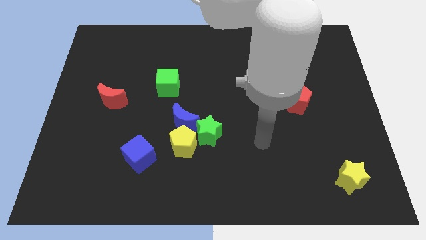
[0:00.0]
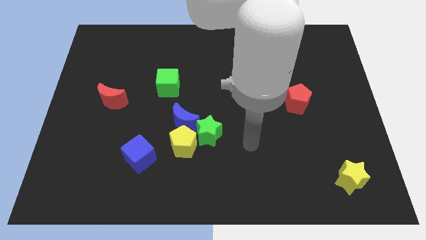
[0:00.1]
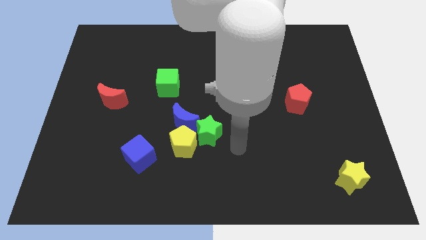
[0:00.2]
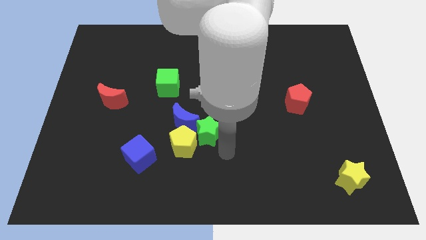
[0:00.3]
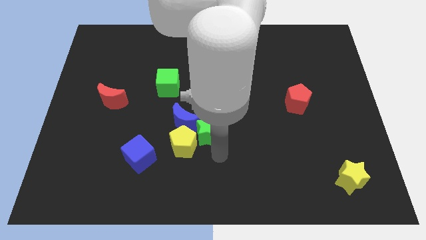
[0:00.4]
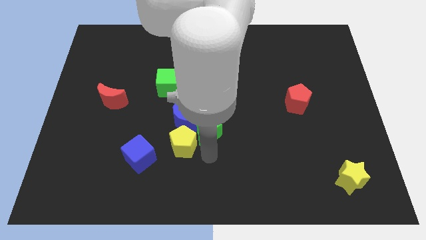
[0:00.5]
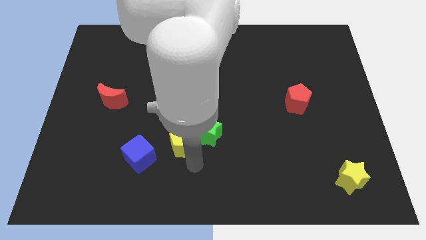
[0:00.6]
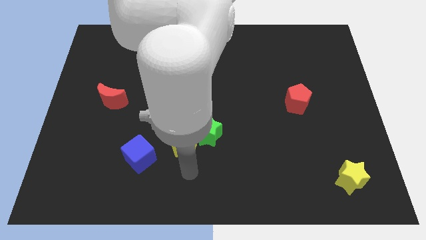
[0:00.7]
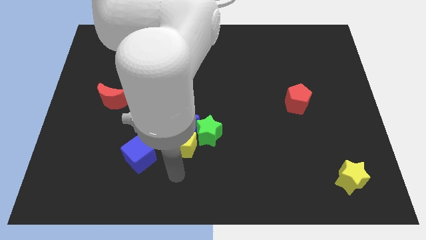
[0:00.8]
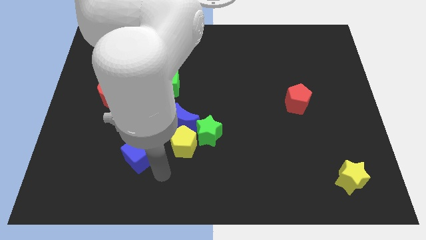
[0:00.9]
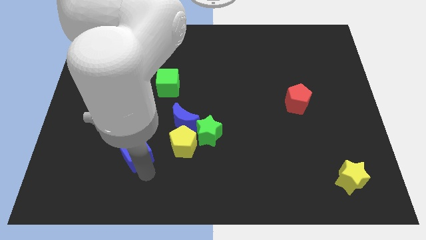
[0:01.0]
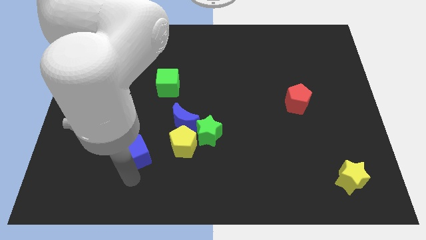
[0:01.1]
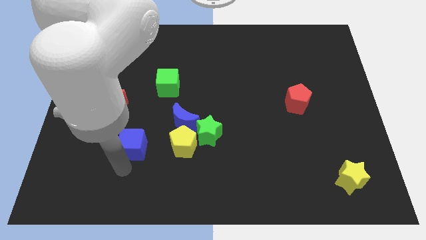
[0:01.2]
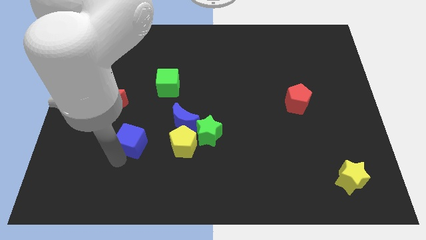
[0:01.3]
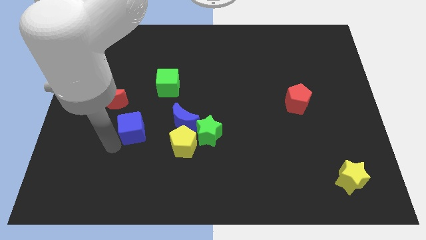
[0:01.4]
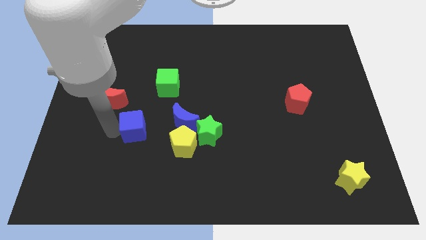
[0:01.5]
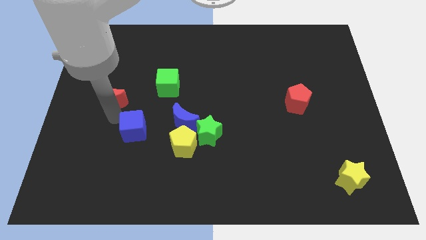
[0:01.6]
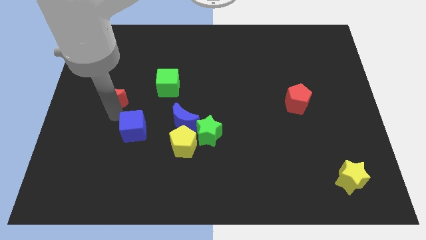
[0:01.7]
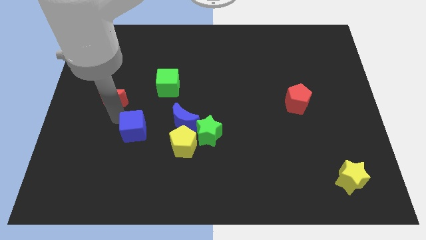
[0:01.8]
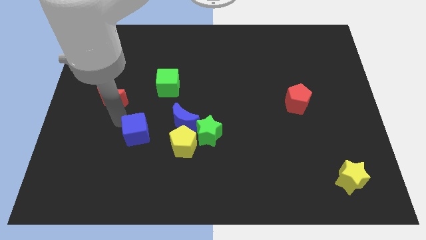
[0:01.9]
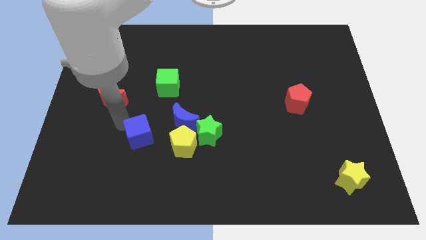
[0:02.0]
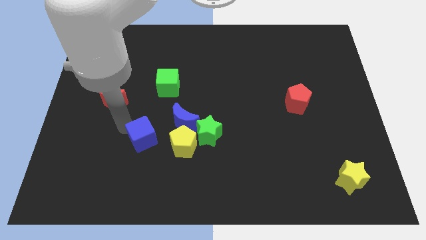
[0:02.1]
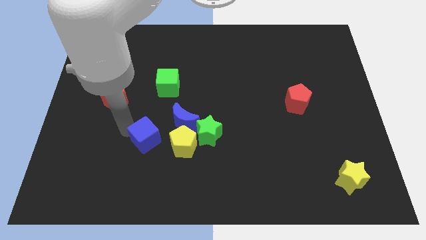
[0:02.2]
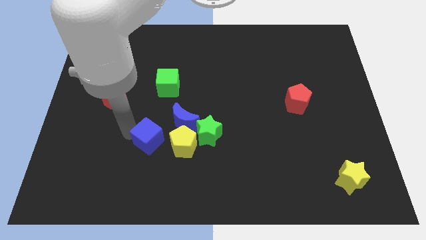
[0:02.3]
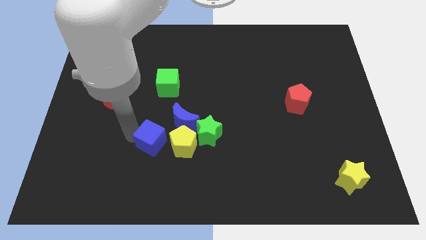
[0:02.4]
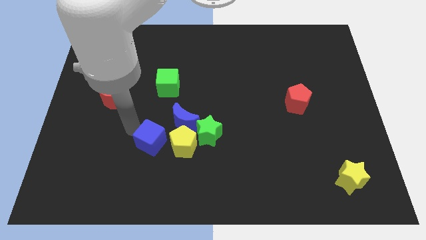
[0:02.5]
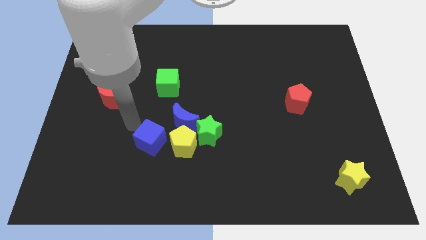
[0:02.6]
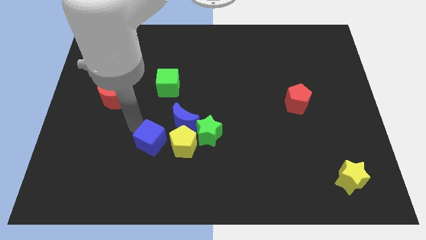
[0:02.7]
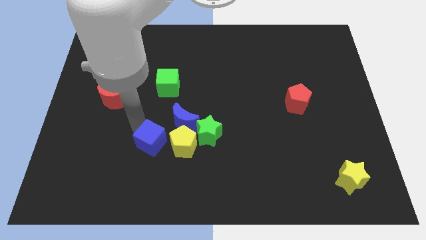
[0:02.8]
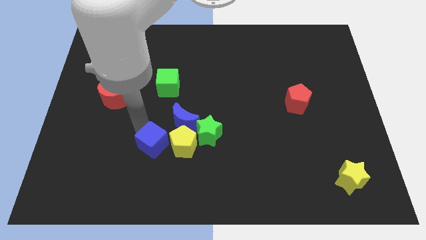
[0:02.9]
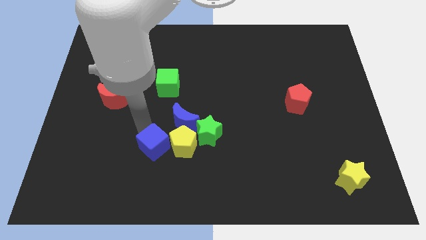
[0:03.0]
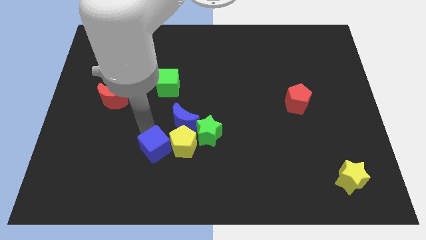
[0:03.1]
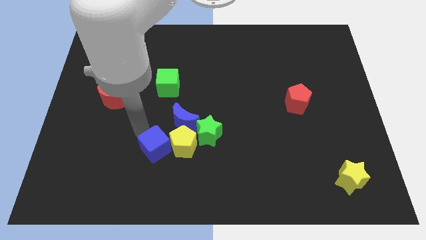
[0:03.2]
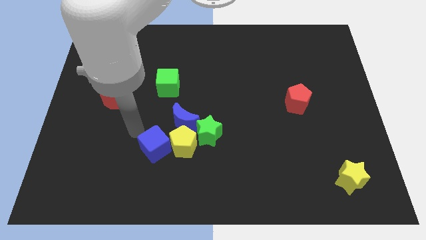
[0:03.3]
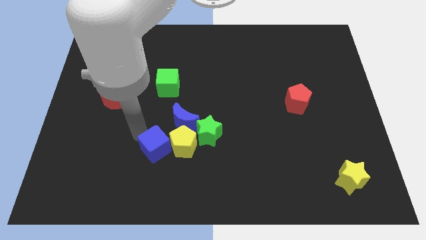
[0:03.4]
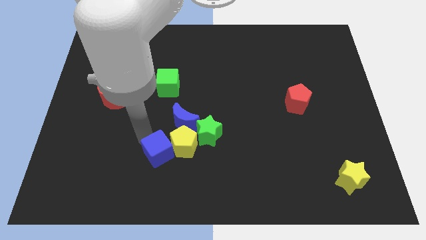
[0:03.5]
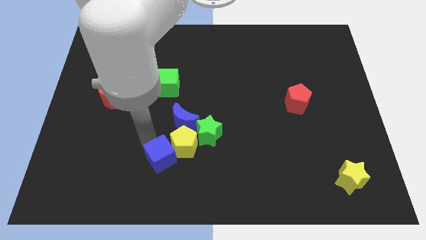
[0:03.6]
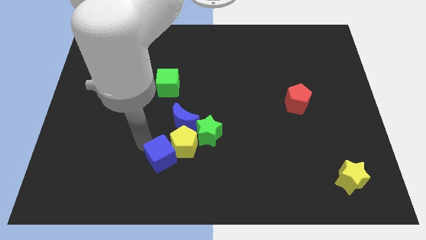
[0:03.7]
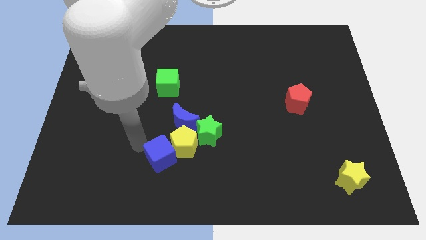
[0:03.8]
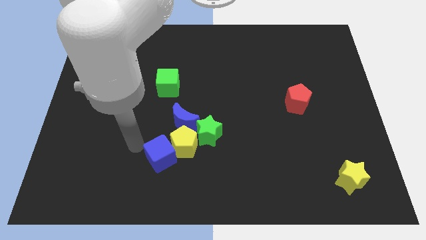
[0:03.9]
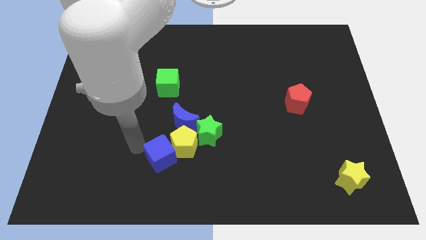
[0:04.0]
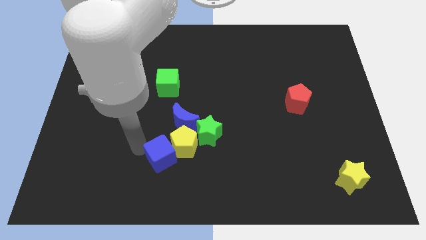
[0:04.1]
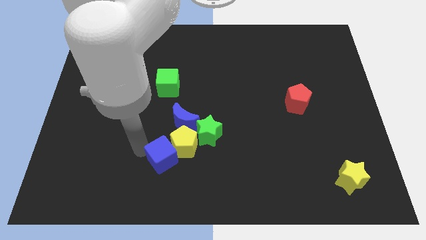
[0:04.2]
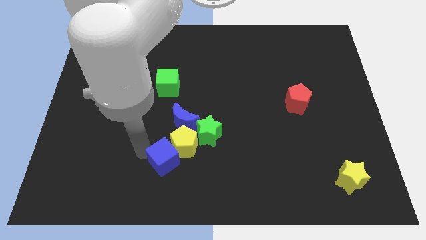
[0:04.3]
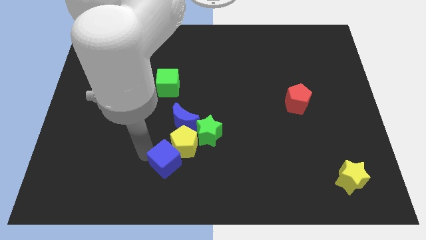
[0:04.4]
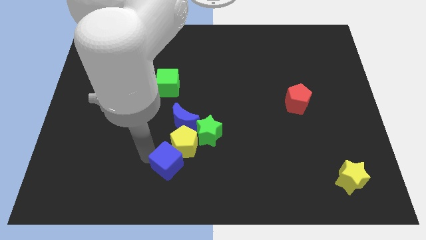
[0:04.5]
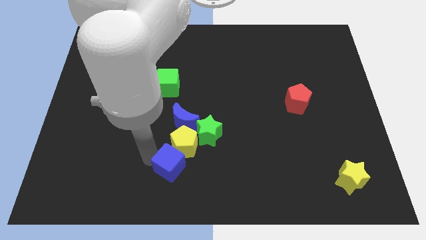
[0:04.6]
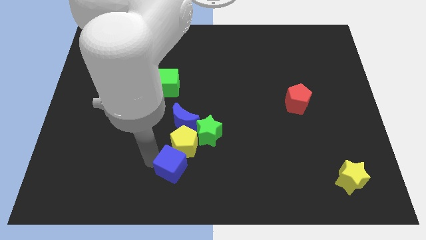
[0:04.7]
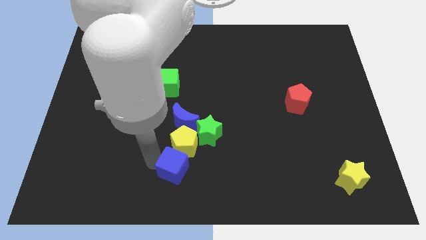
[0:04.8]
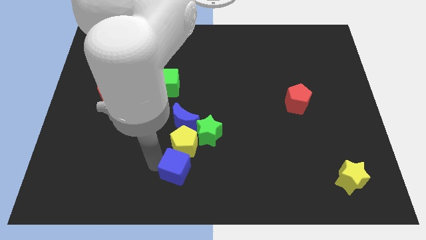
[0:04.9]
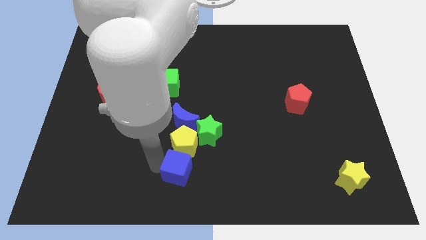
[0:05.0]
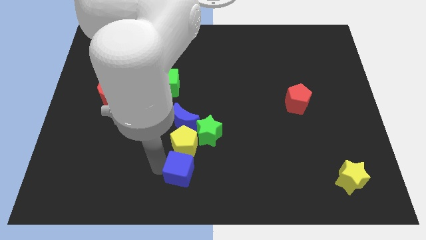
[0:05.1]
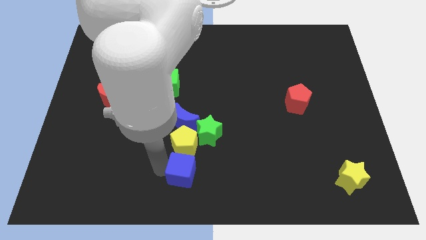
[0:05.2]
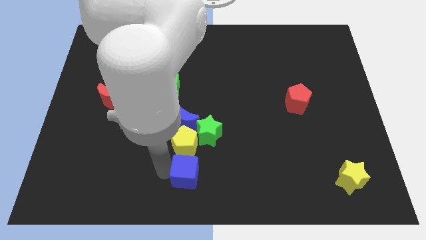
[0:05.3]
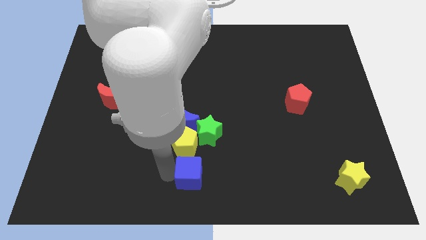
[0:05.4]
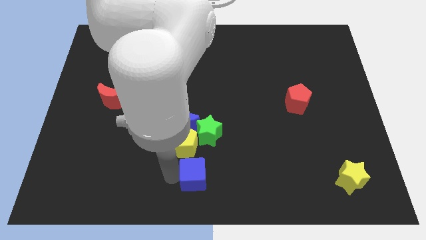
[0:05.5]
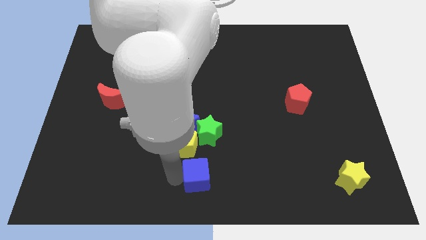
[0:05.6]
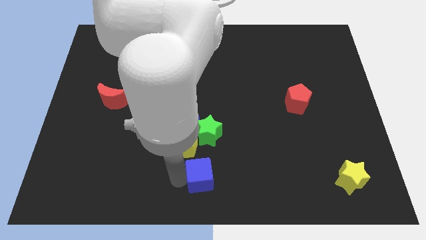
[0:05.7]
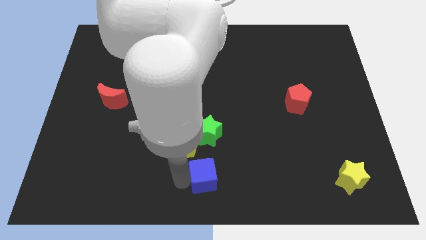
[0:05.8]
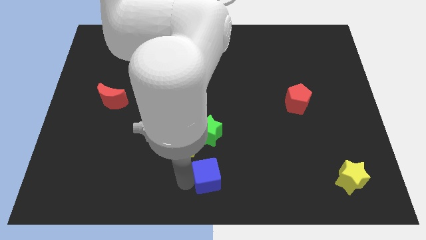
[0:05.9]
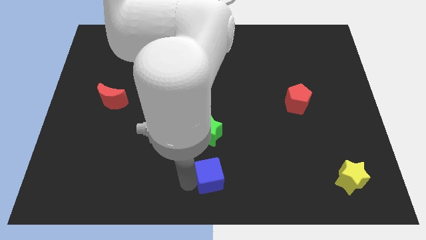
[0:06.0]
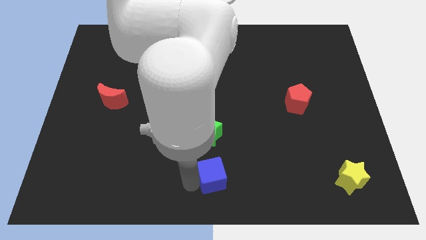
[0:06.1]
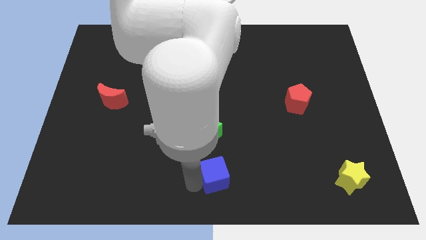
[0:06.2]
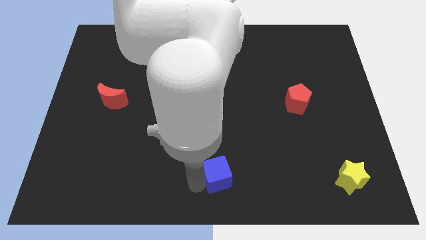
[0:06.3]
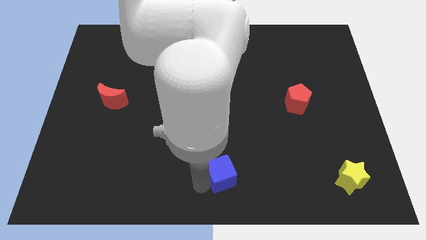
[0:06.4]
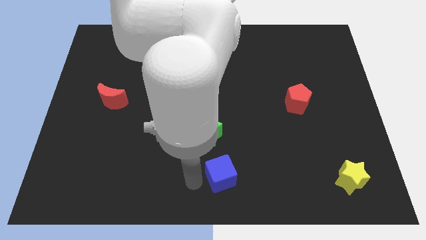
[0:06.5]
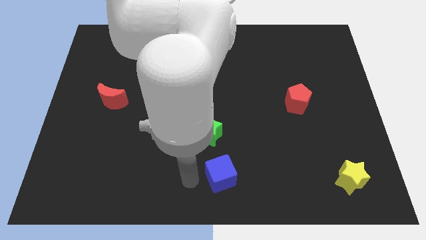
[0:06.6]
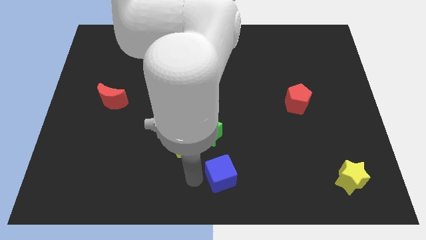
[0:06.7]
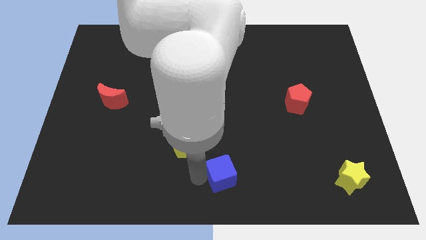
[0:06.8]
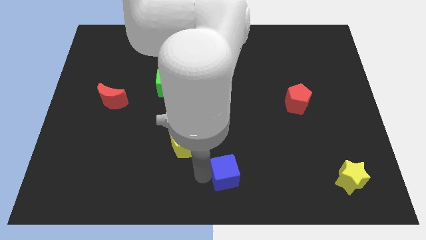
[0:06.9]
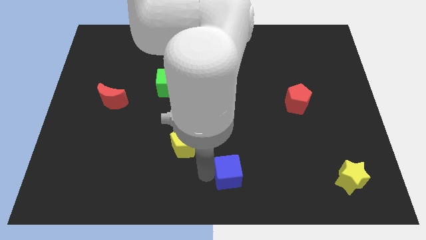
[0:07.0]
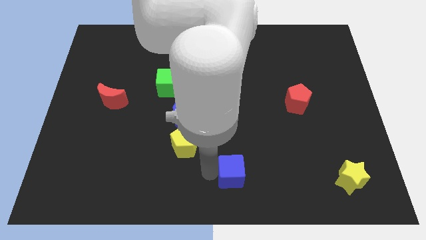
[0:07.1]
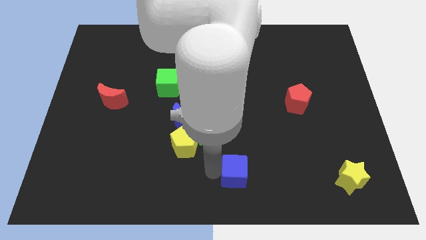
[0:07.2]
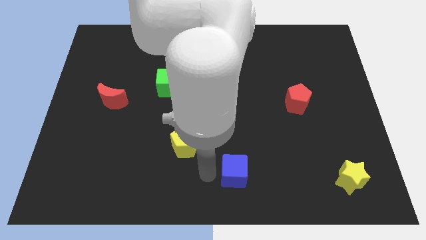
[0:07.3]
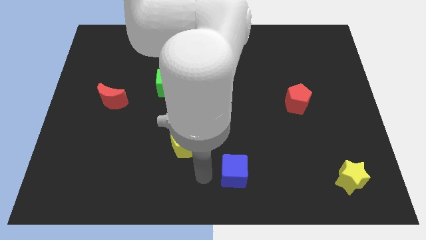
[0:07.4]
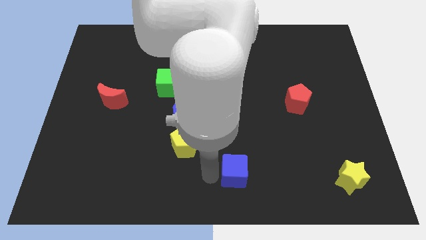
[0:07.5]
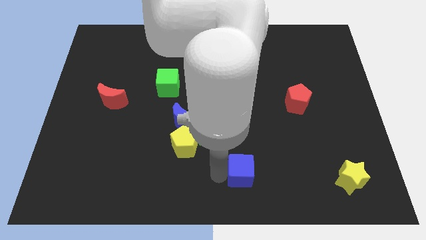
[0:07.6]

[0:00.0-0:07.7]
move the blue cube to the right

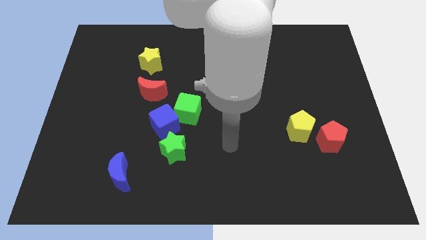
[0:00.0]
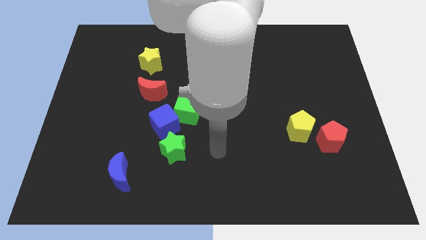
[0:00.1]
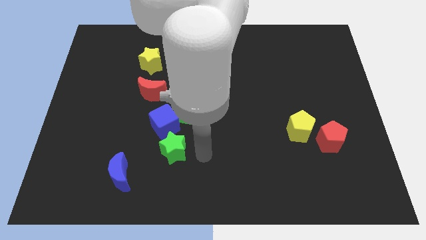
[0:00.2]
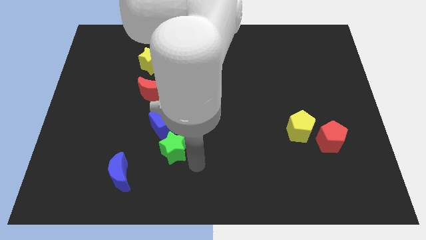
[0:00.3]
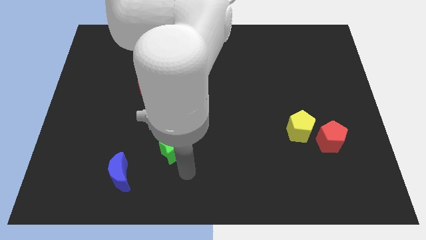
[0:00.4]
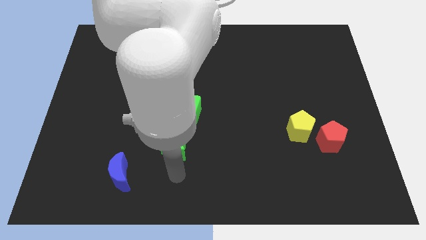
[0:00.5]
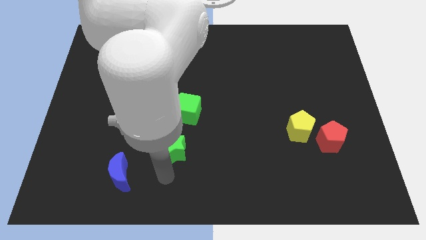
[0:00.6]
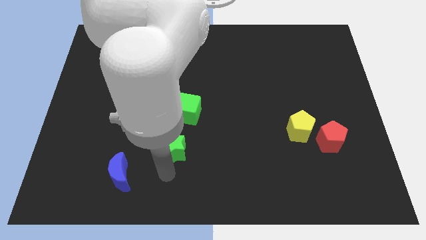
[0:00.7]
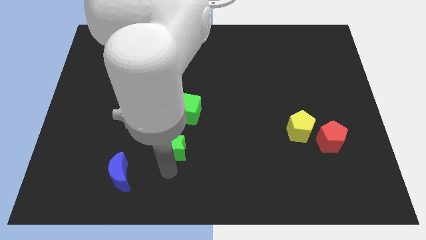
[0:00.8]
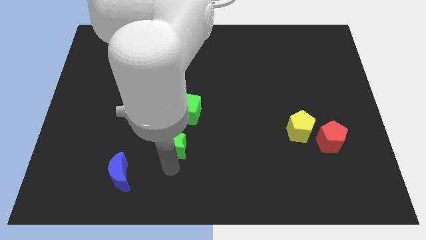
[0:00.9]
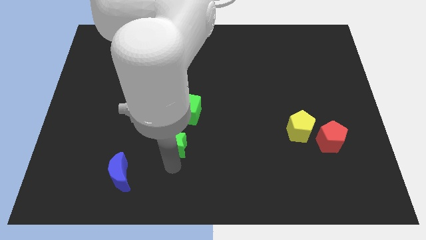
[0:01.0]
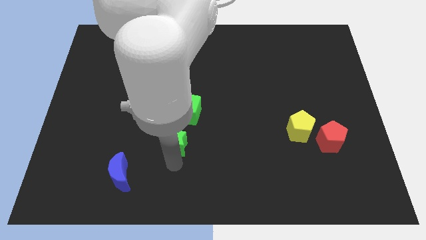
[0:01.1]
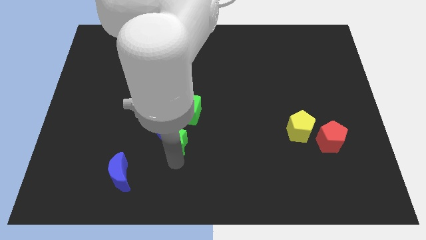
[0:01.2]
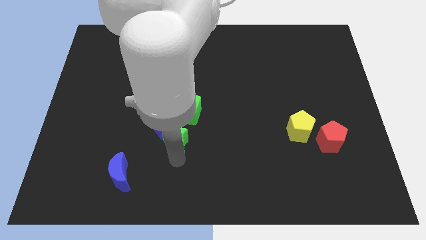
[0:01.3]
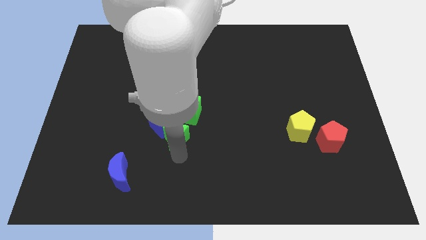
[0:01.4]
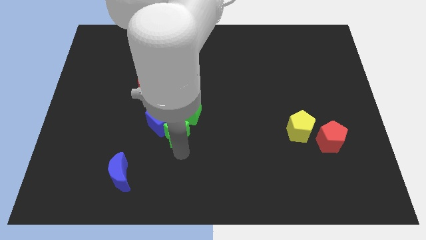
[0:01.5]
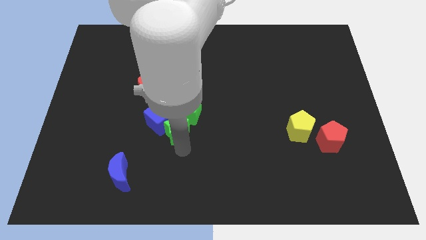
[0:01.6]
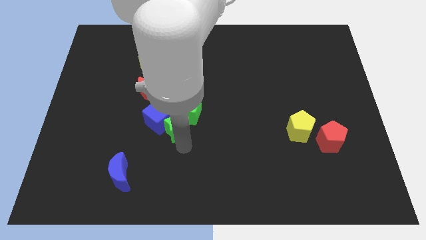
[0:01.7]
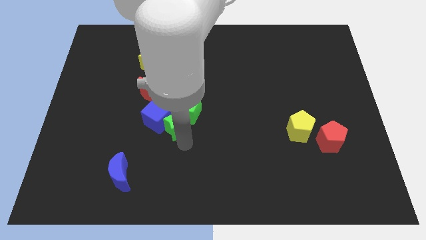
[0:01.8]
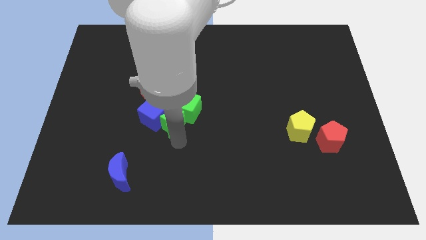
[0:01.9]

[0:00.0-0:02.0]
push the green star up a little
